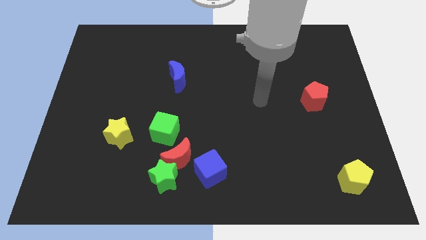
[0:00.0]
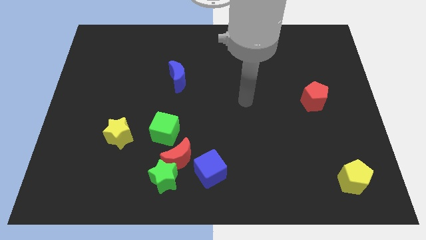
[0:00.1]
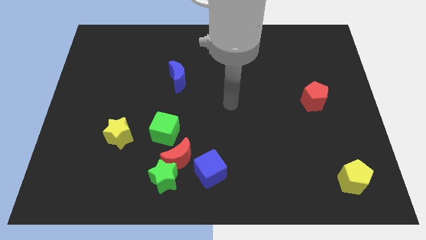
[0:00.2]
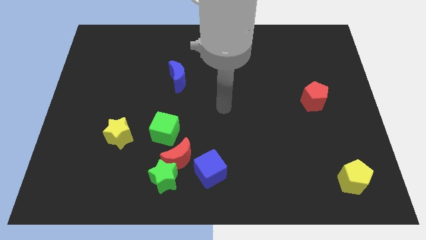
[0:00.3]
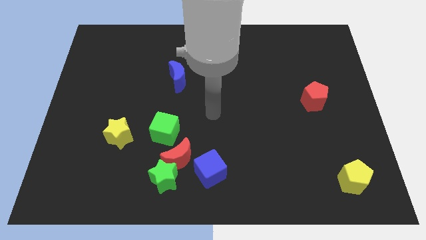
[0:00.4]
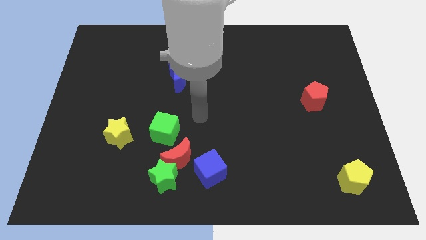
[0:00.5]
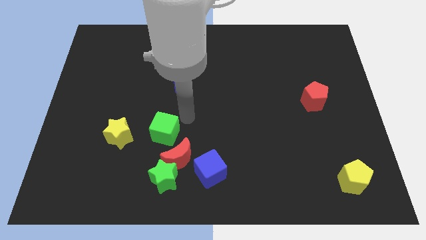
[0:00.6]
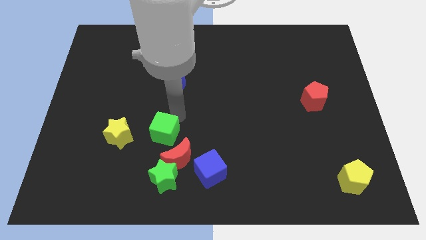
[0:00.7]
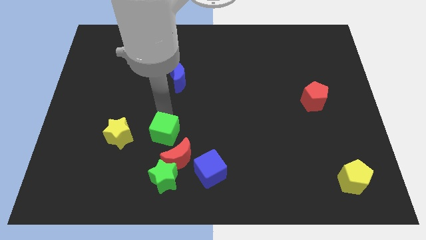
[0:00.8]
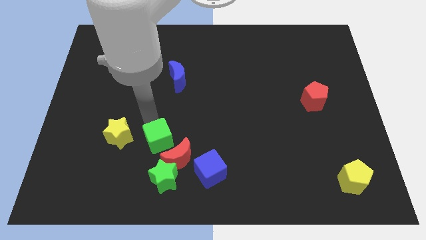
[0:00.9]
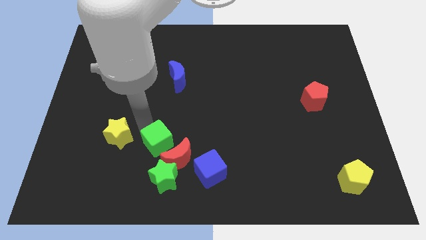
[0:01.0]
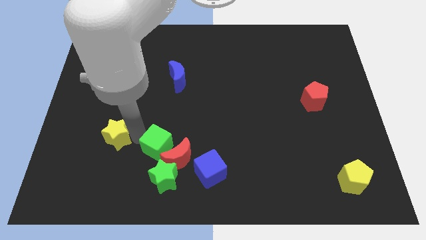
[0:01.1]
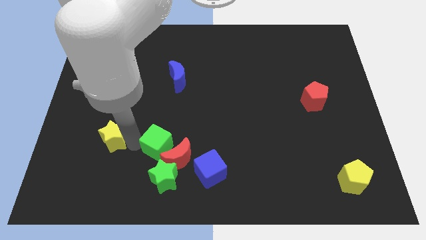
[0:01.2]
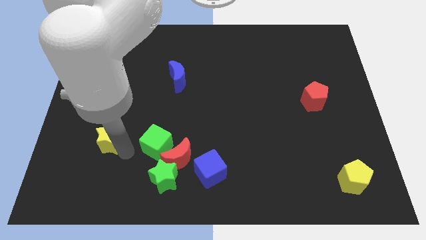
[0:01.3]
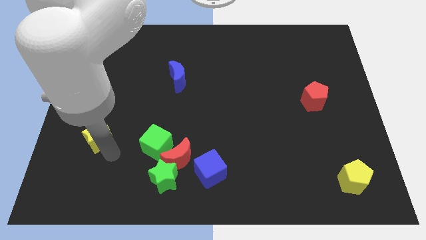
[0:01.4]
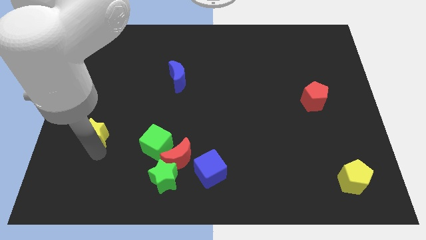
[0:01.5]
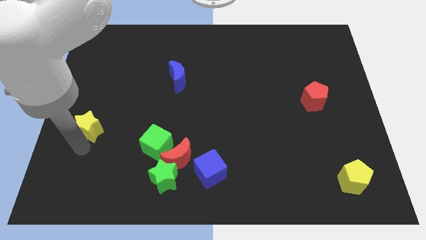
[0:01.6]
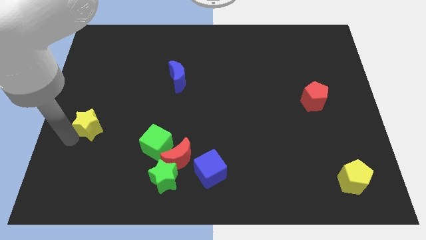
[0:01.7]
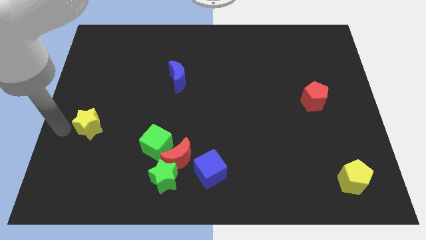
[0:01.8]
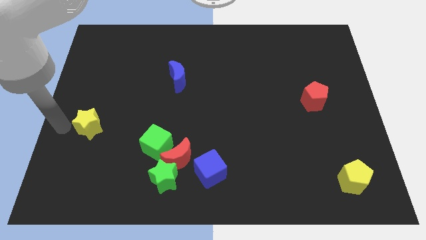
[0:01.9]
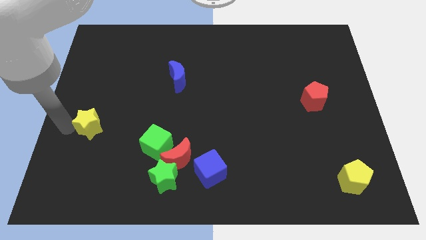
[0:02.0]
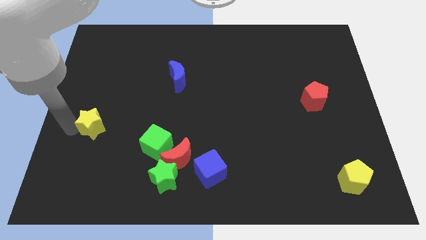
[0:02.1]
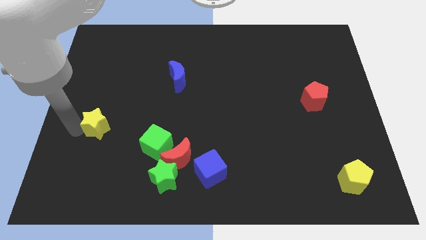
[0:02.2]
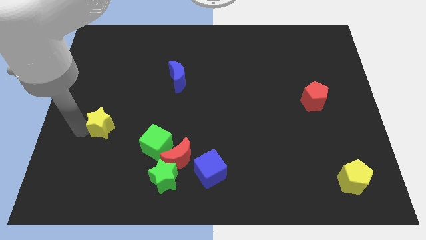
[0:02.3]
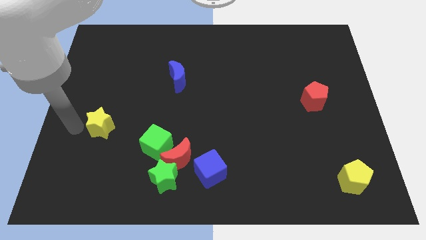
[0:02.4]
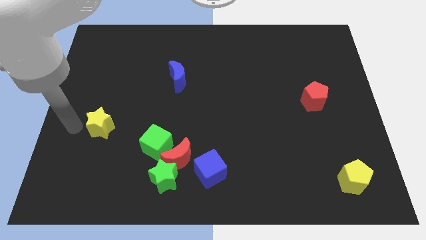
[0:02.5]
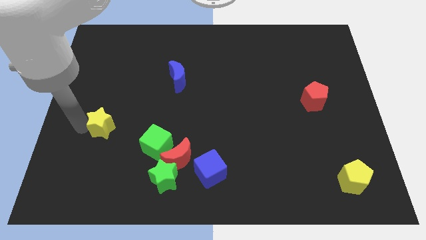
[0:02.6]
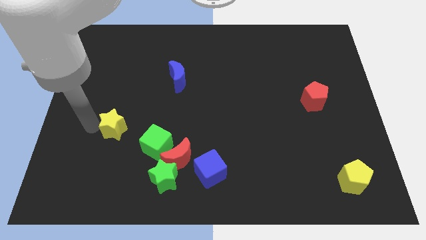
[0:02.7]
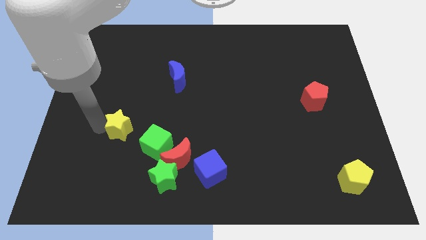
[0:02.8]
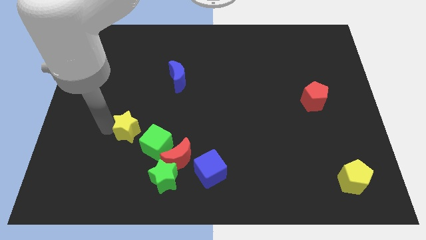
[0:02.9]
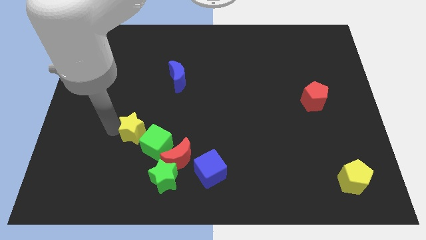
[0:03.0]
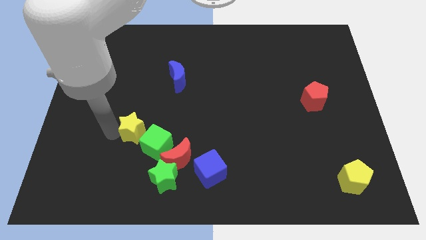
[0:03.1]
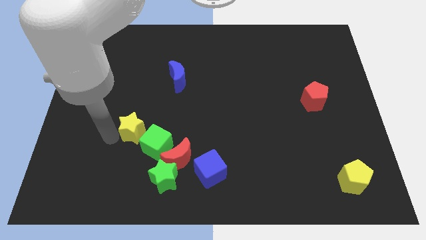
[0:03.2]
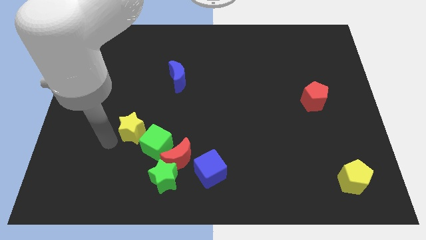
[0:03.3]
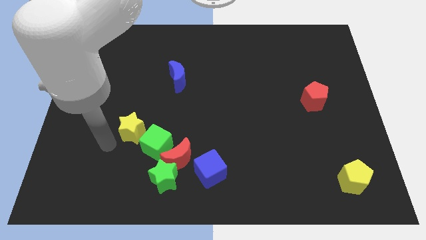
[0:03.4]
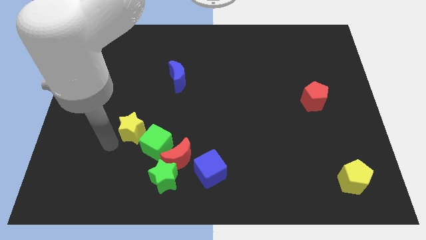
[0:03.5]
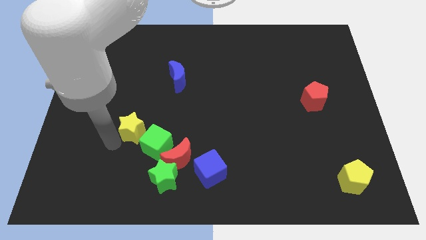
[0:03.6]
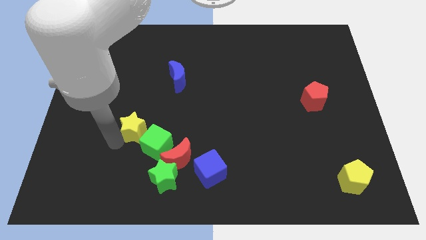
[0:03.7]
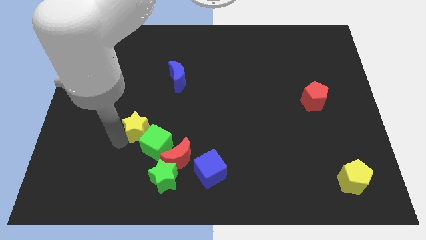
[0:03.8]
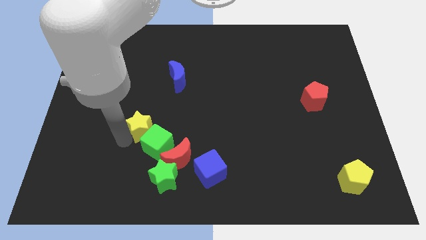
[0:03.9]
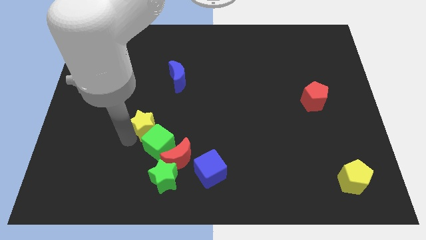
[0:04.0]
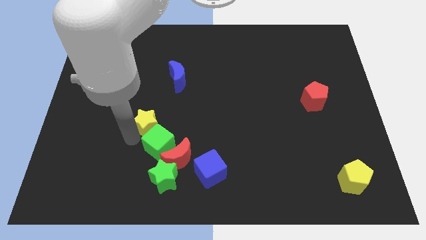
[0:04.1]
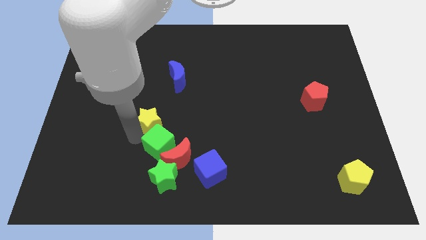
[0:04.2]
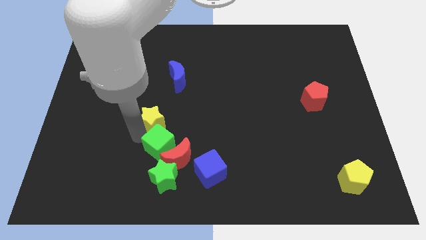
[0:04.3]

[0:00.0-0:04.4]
move the yellow star a bit to the right

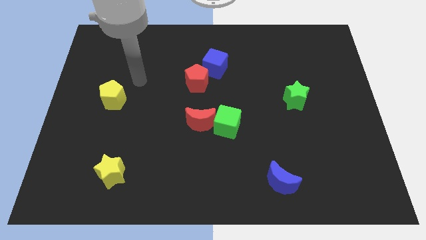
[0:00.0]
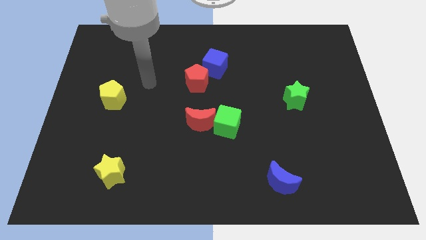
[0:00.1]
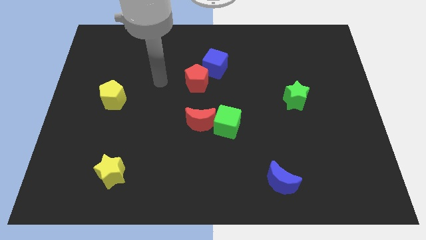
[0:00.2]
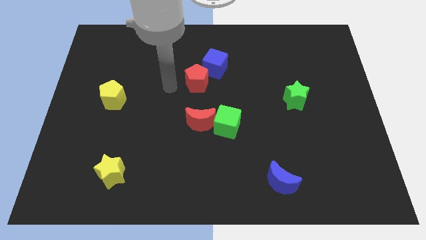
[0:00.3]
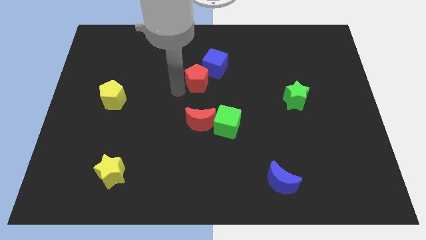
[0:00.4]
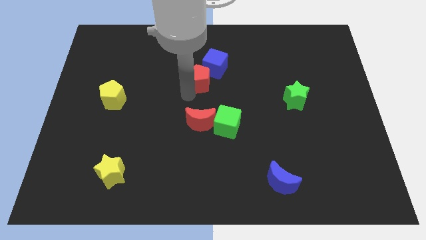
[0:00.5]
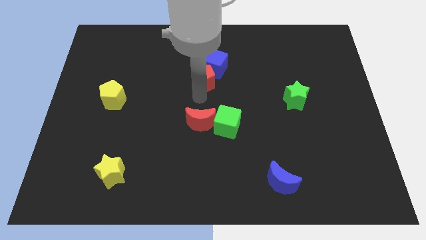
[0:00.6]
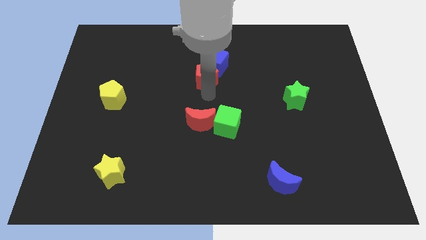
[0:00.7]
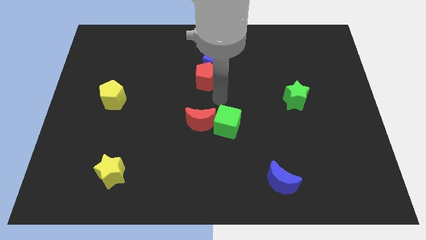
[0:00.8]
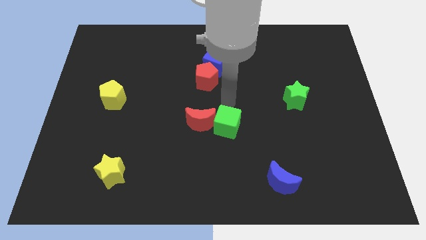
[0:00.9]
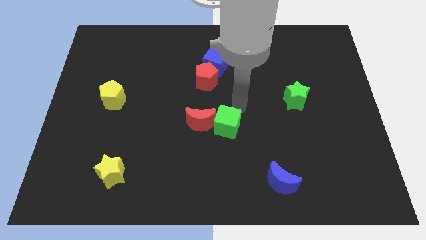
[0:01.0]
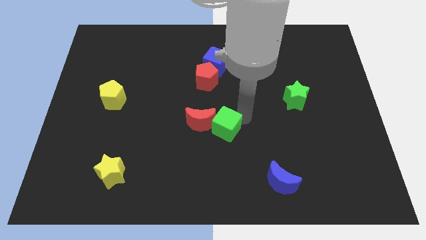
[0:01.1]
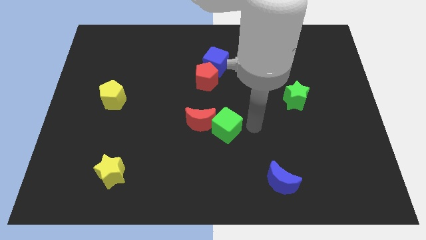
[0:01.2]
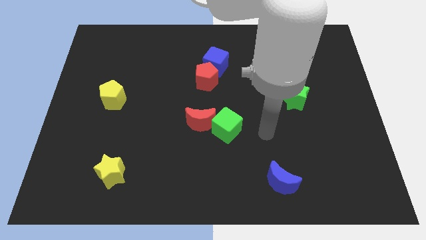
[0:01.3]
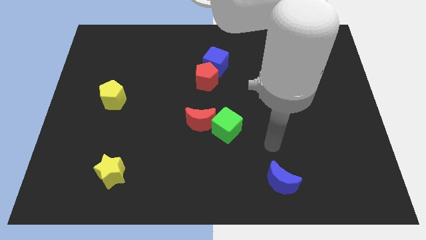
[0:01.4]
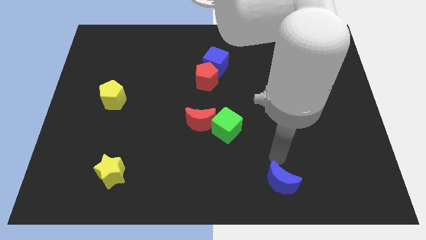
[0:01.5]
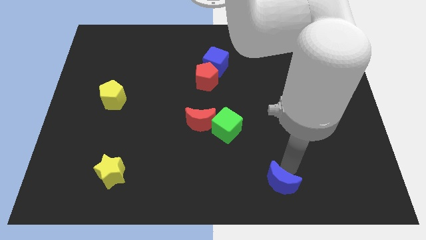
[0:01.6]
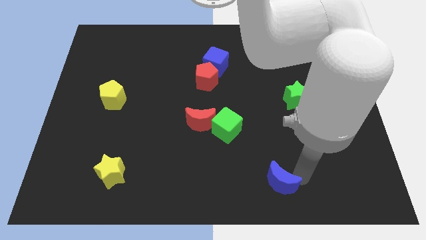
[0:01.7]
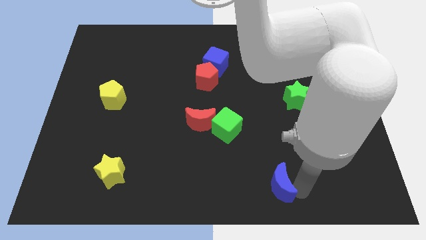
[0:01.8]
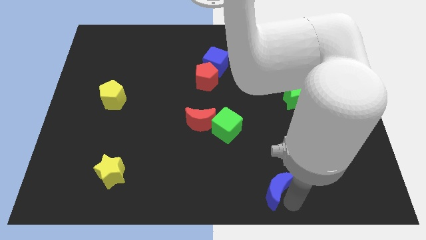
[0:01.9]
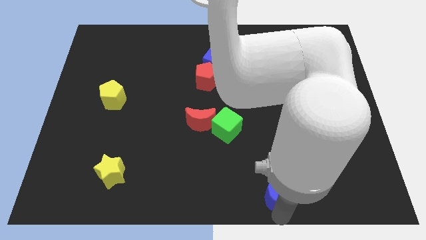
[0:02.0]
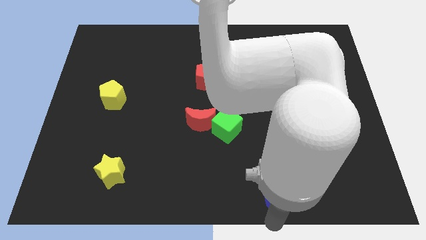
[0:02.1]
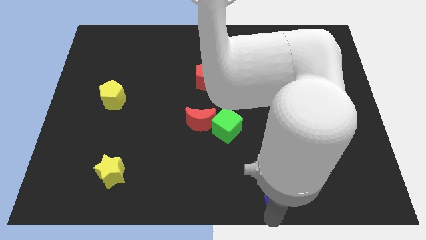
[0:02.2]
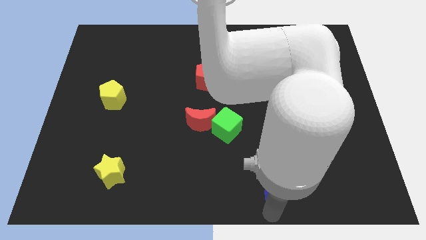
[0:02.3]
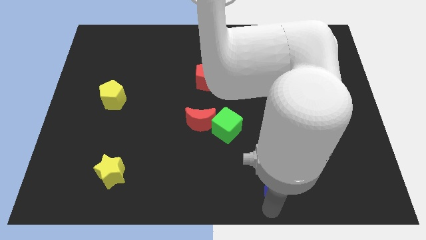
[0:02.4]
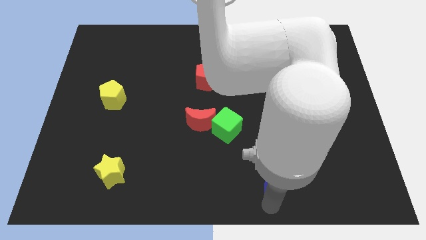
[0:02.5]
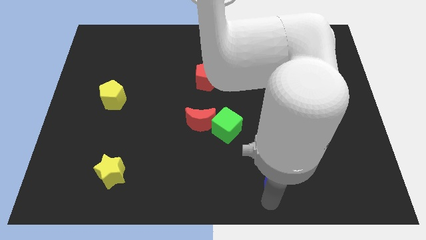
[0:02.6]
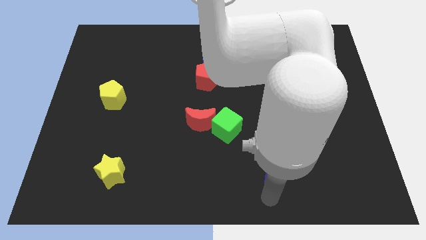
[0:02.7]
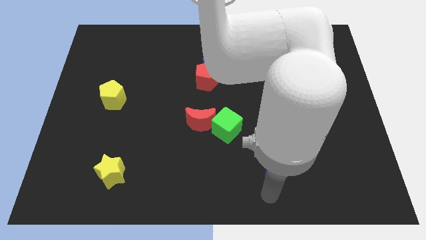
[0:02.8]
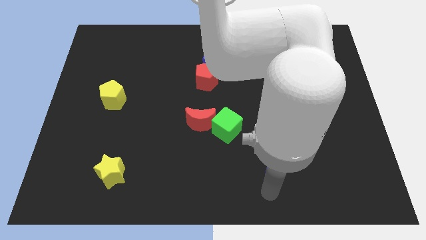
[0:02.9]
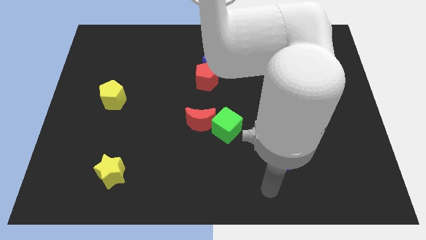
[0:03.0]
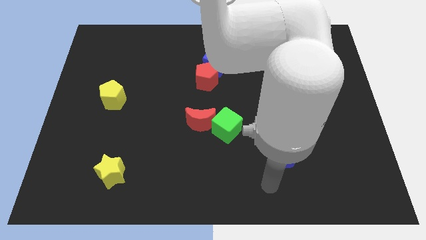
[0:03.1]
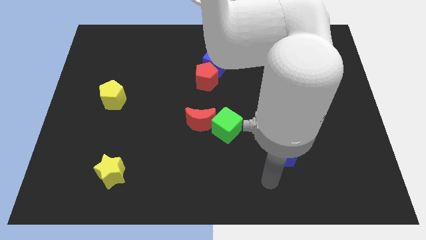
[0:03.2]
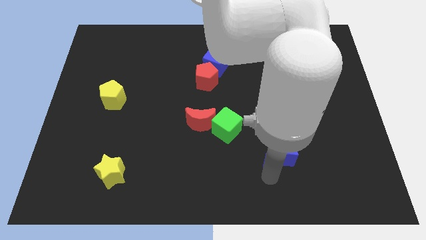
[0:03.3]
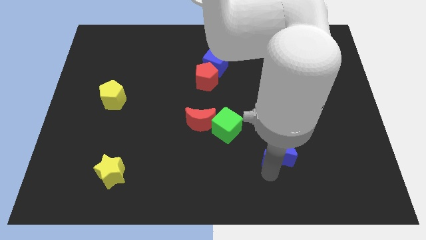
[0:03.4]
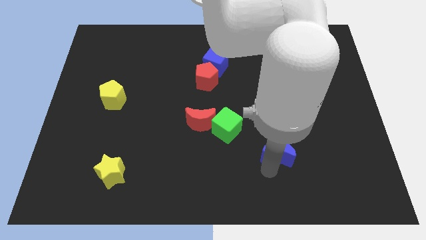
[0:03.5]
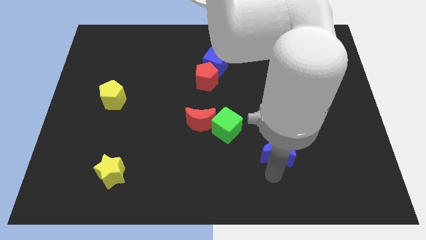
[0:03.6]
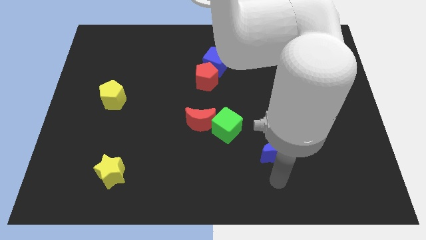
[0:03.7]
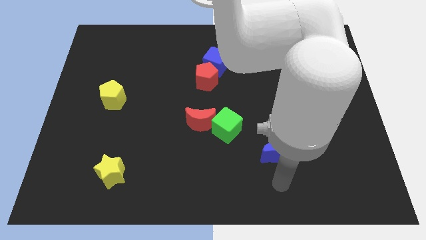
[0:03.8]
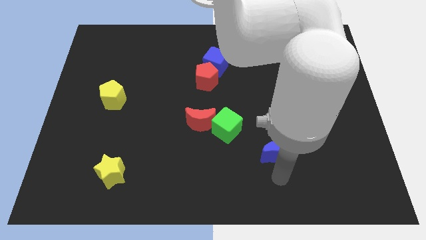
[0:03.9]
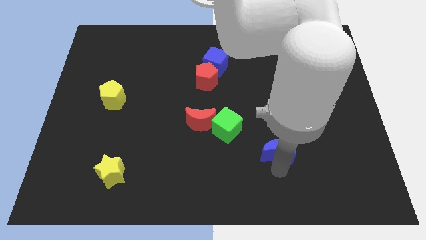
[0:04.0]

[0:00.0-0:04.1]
slightly slide the blue moon upwards
